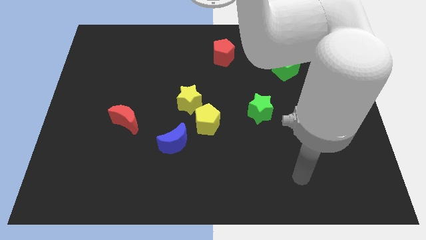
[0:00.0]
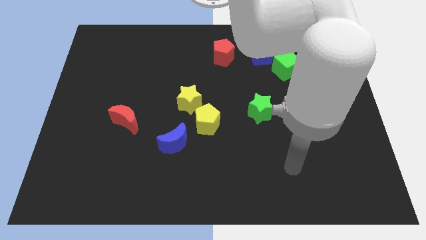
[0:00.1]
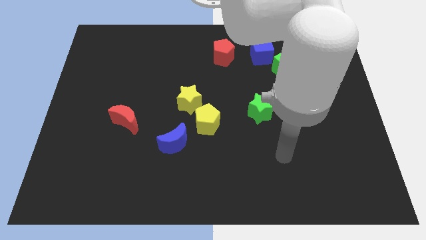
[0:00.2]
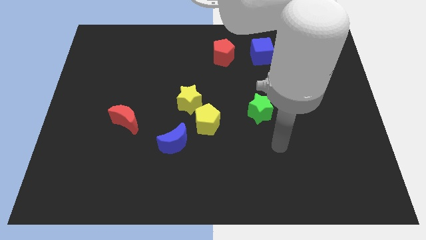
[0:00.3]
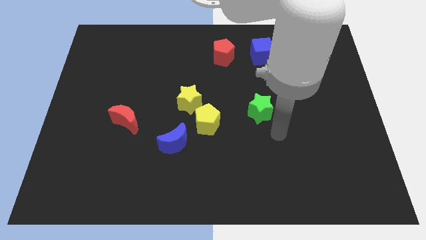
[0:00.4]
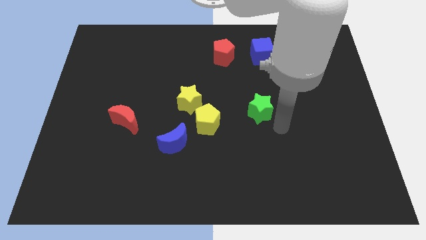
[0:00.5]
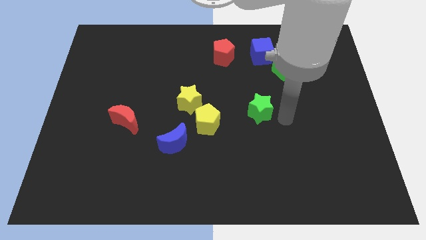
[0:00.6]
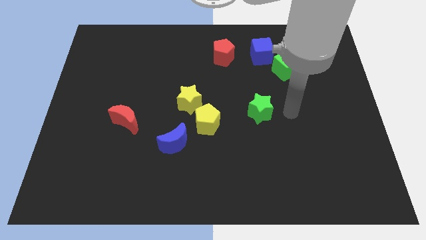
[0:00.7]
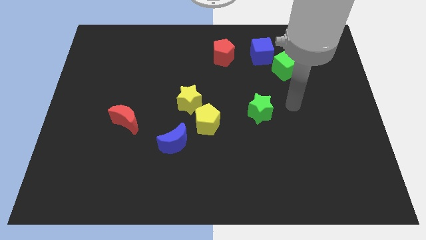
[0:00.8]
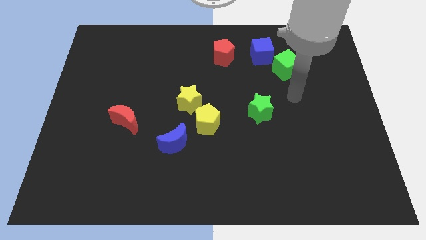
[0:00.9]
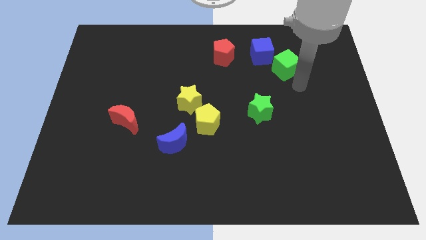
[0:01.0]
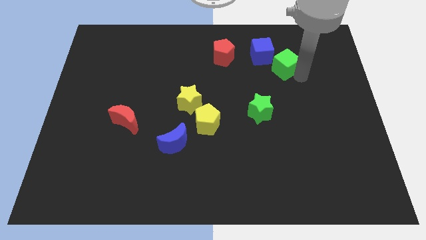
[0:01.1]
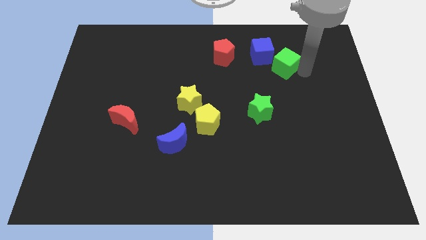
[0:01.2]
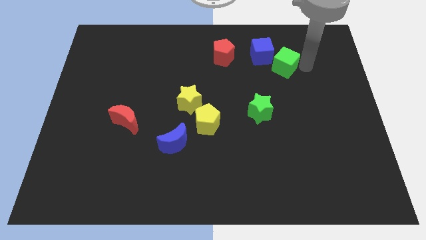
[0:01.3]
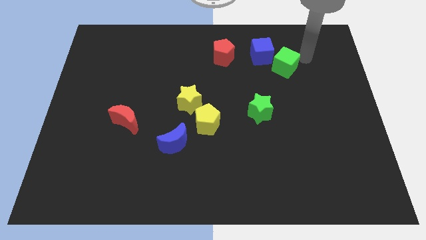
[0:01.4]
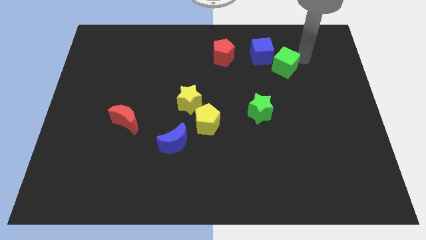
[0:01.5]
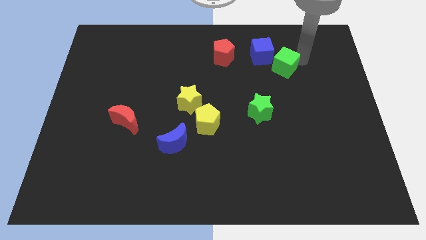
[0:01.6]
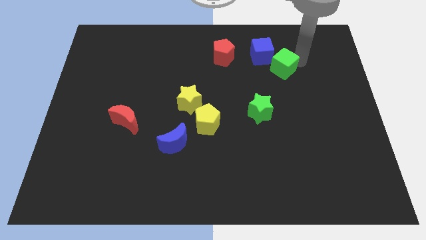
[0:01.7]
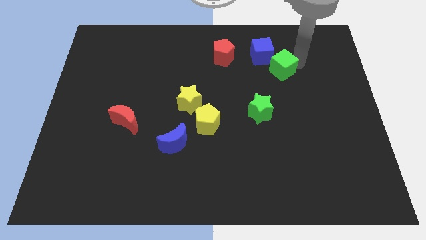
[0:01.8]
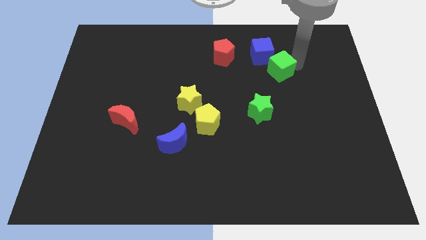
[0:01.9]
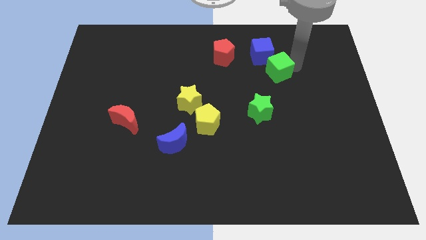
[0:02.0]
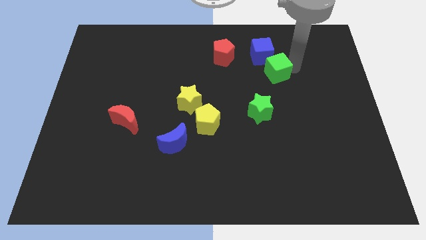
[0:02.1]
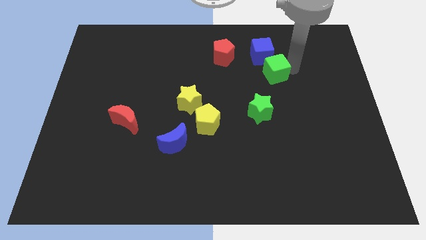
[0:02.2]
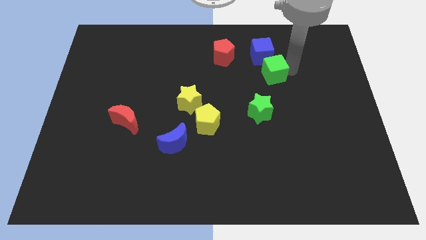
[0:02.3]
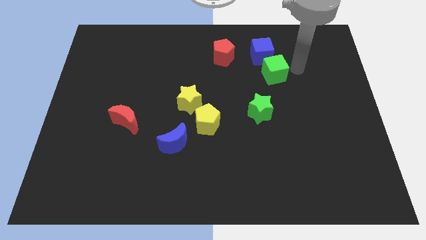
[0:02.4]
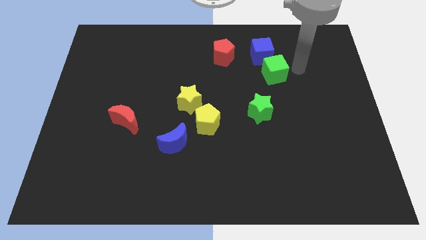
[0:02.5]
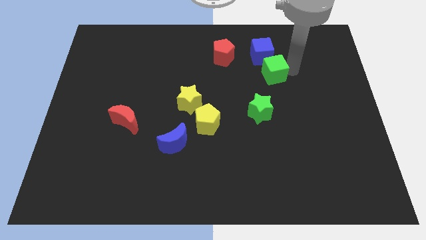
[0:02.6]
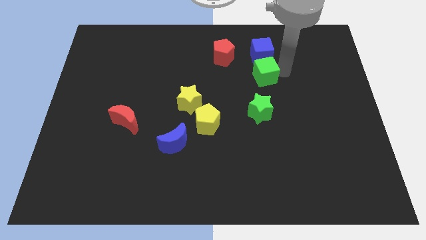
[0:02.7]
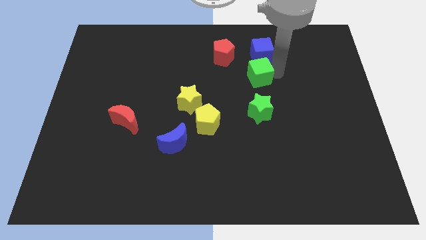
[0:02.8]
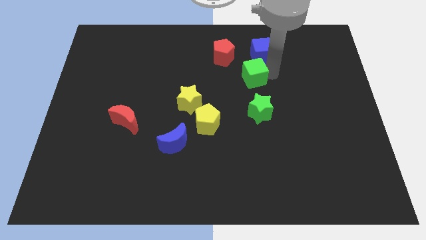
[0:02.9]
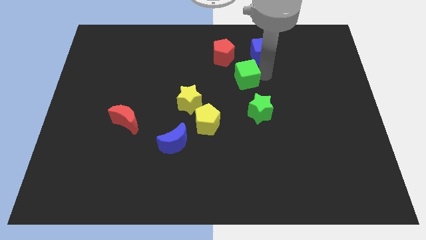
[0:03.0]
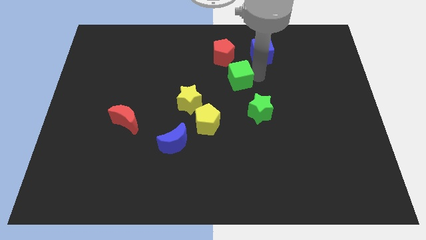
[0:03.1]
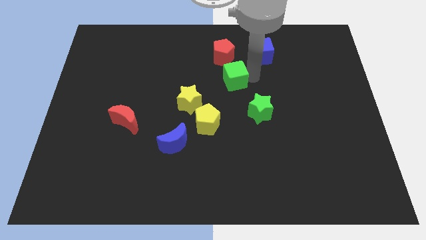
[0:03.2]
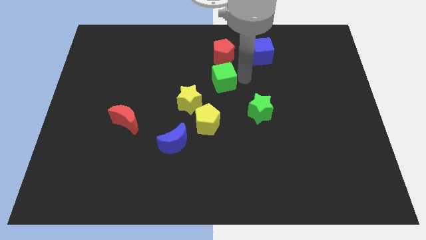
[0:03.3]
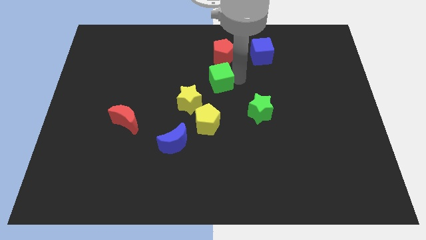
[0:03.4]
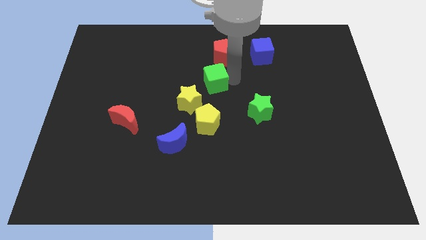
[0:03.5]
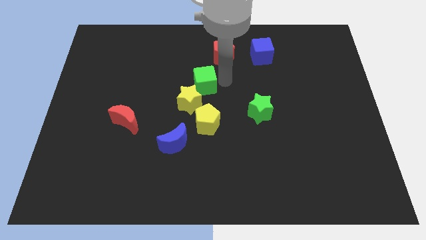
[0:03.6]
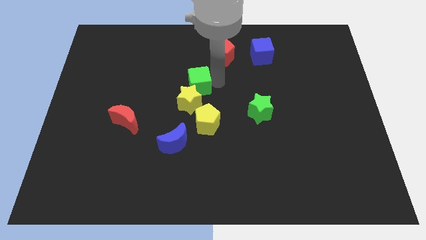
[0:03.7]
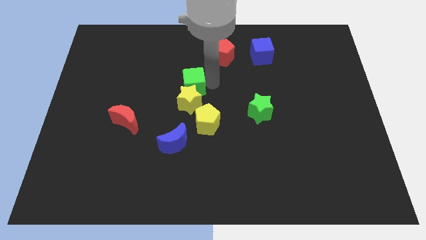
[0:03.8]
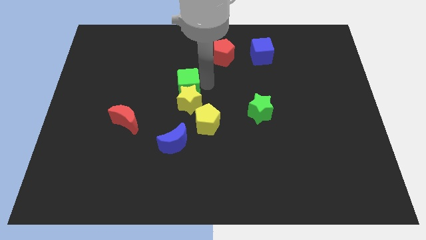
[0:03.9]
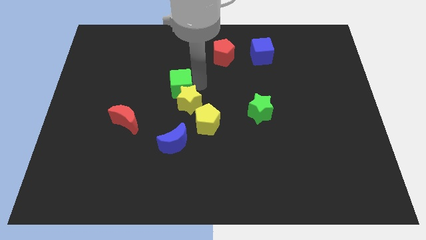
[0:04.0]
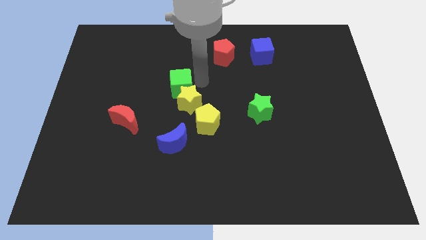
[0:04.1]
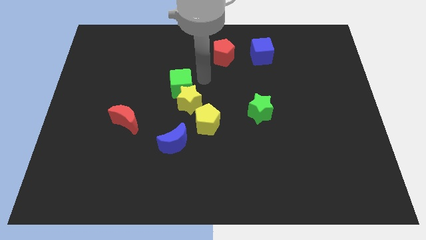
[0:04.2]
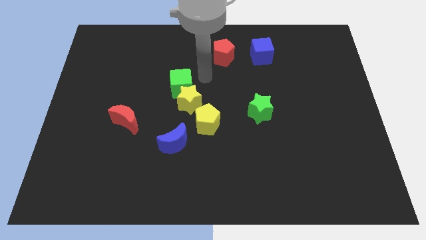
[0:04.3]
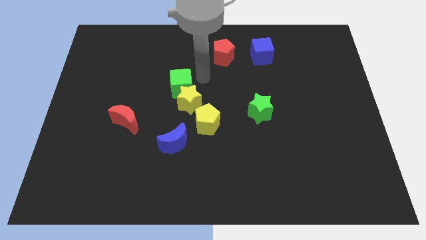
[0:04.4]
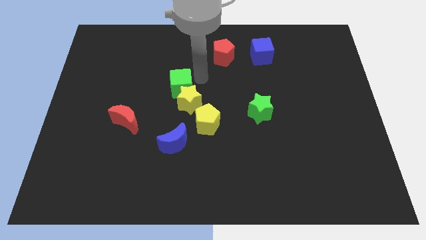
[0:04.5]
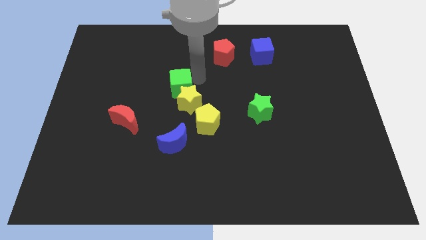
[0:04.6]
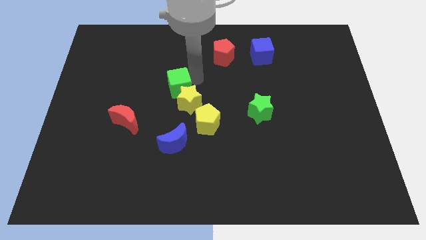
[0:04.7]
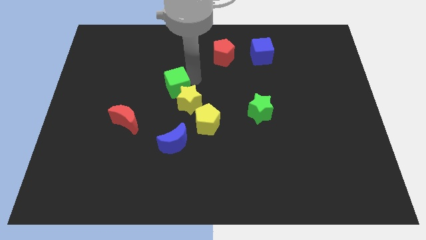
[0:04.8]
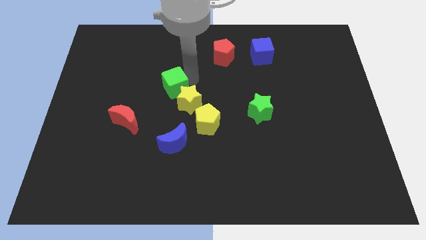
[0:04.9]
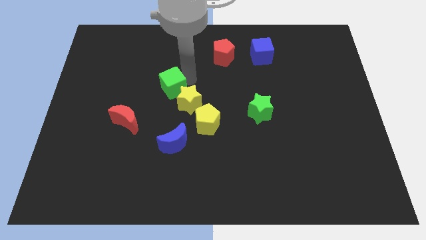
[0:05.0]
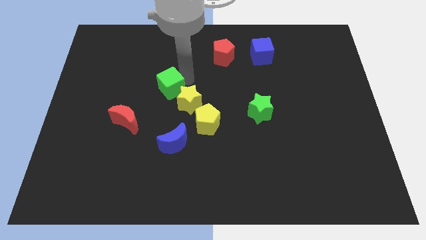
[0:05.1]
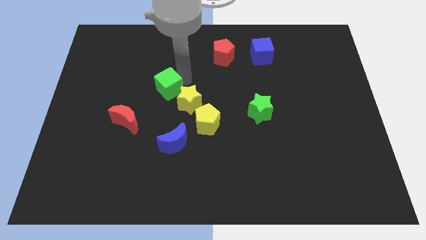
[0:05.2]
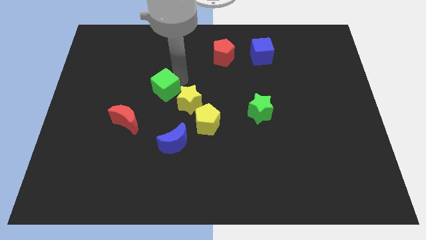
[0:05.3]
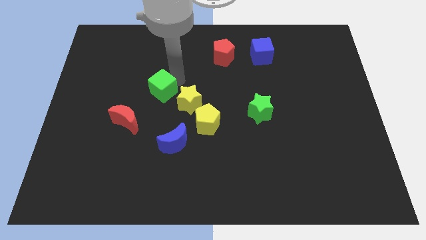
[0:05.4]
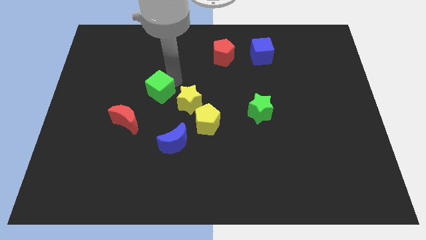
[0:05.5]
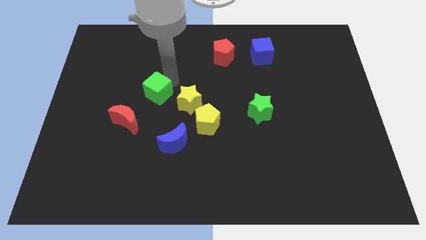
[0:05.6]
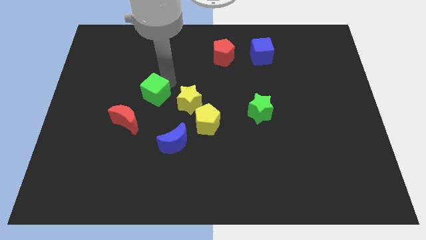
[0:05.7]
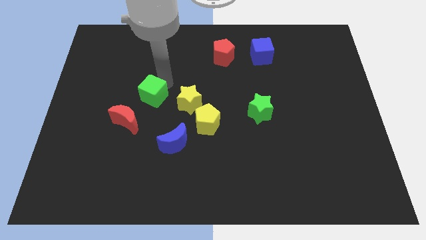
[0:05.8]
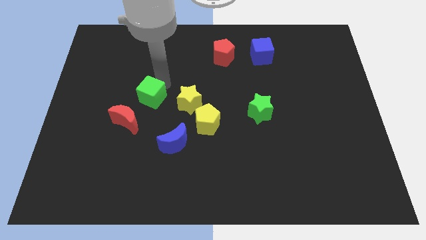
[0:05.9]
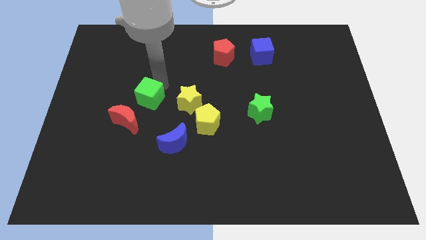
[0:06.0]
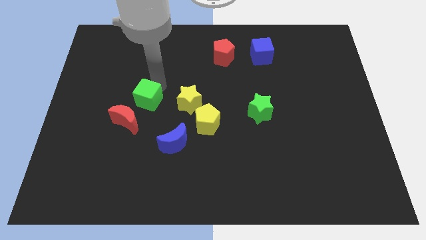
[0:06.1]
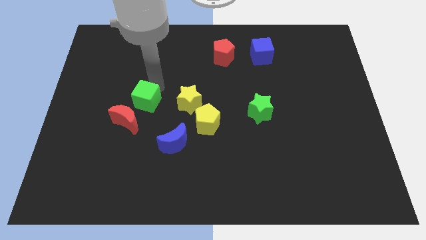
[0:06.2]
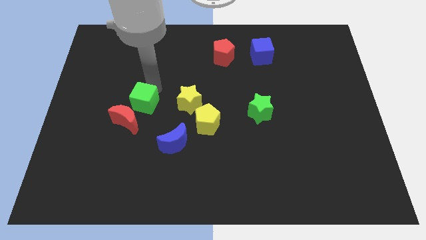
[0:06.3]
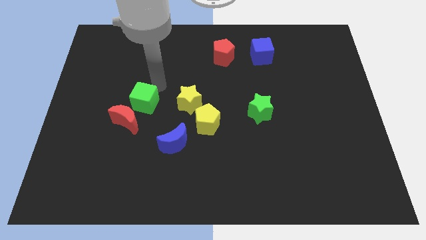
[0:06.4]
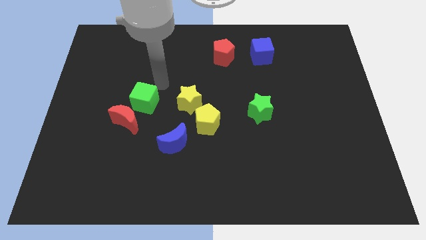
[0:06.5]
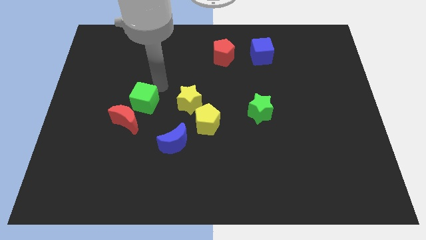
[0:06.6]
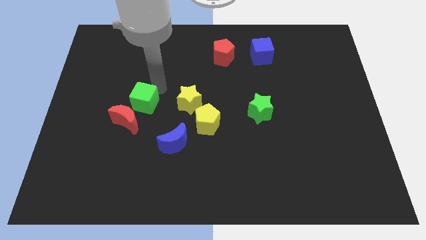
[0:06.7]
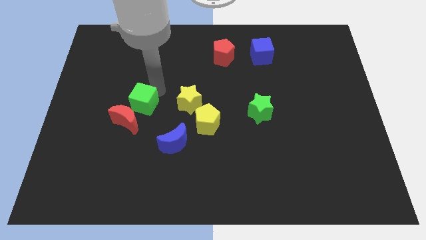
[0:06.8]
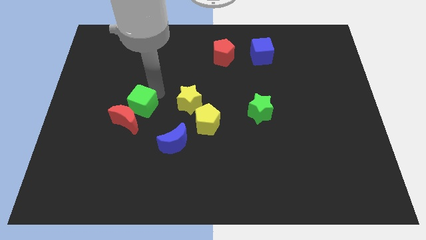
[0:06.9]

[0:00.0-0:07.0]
put the green cube next to the red moon
